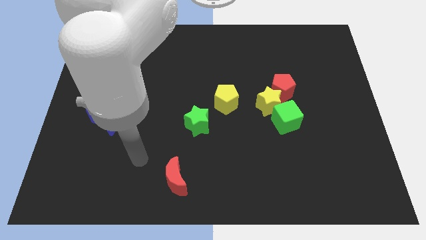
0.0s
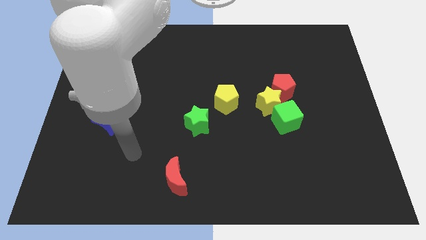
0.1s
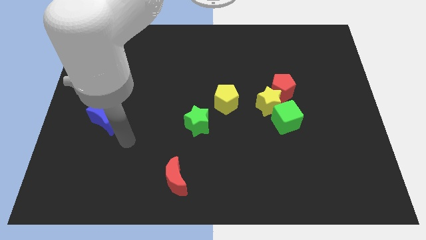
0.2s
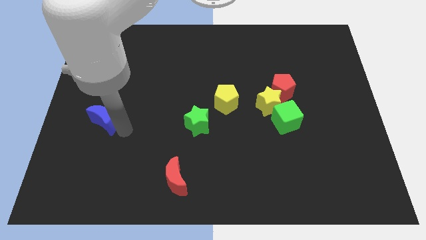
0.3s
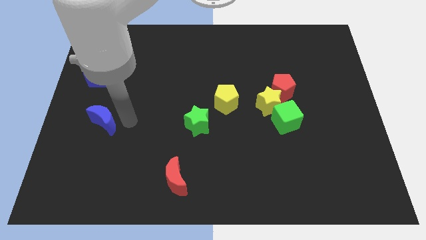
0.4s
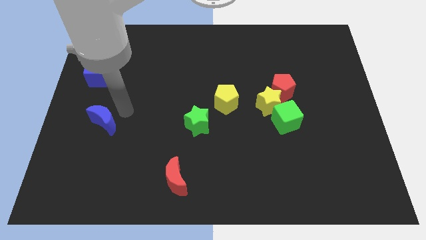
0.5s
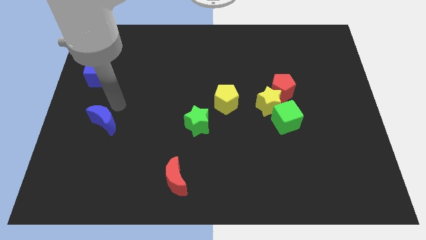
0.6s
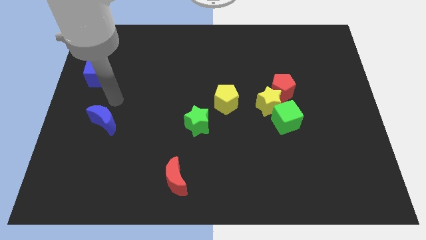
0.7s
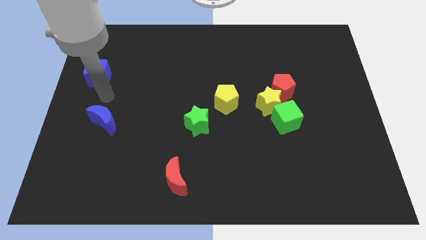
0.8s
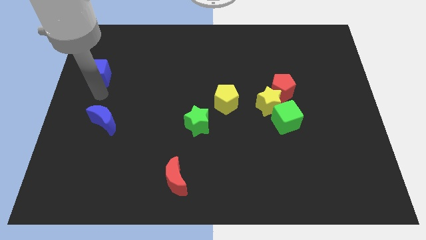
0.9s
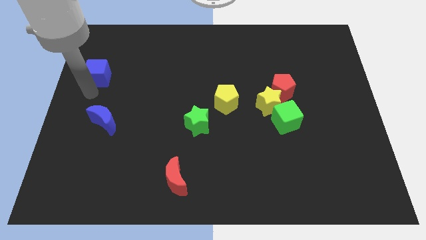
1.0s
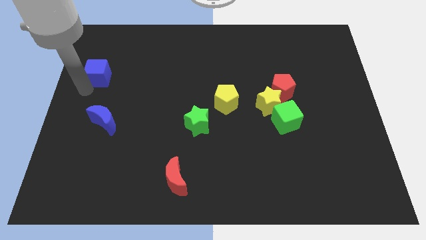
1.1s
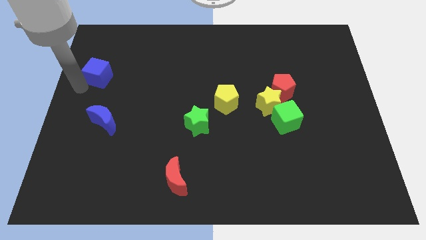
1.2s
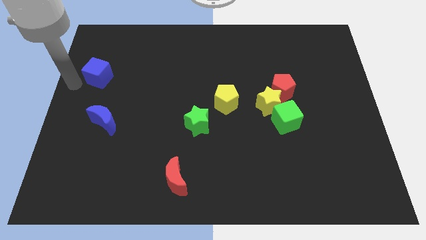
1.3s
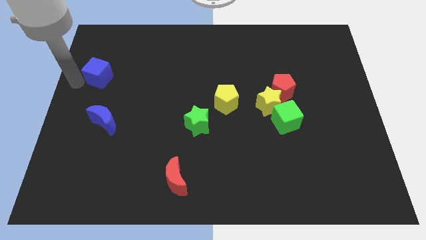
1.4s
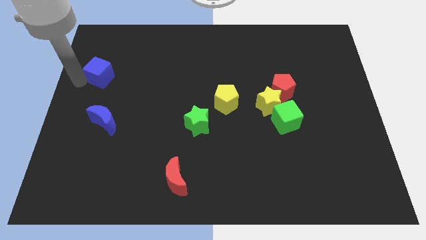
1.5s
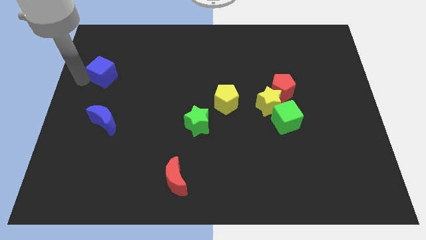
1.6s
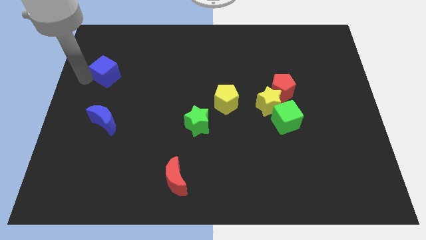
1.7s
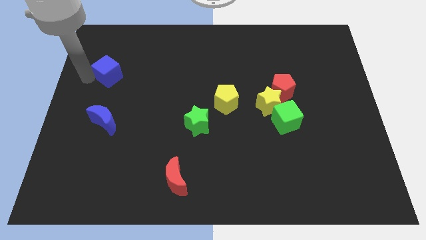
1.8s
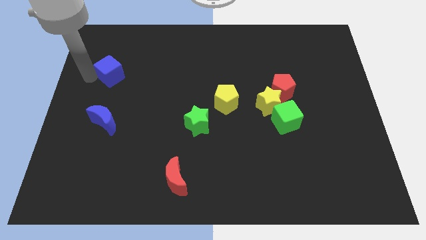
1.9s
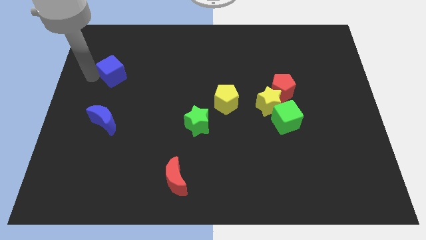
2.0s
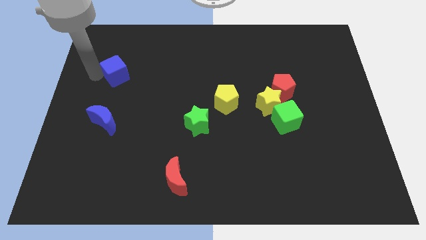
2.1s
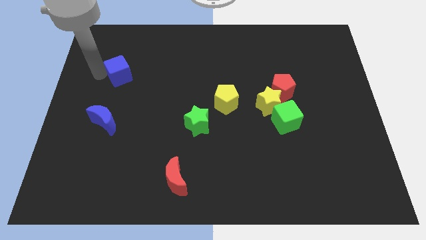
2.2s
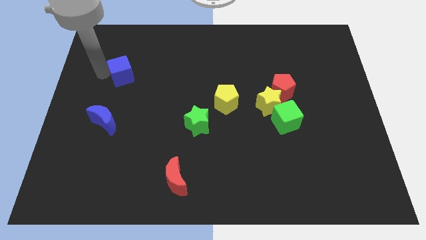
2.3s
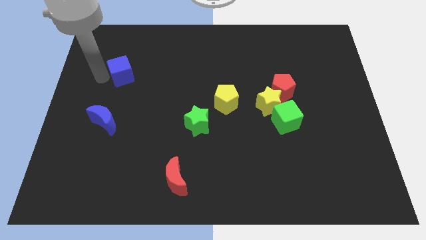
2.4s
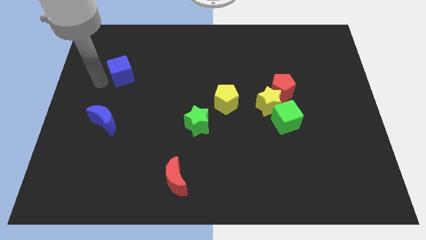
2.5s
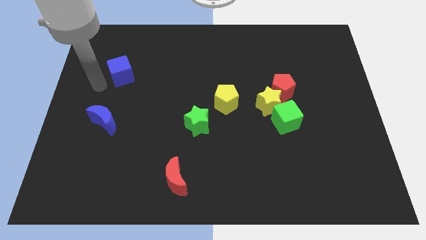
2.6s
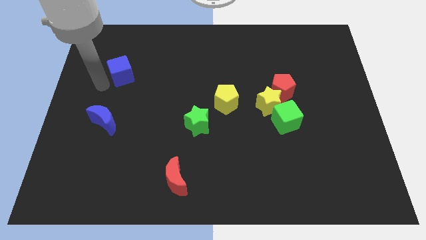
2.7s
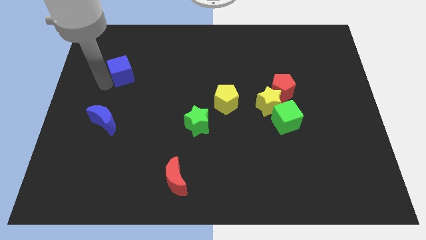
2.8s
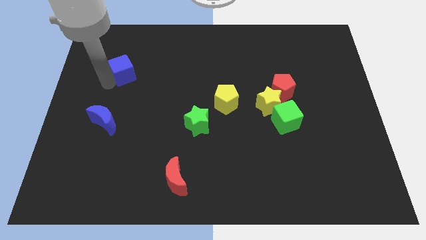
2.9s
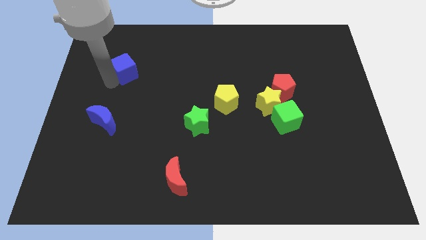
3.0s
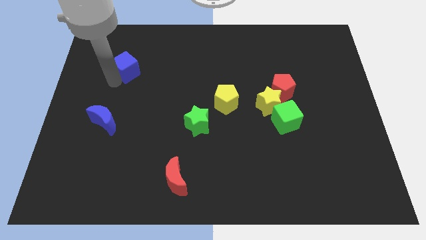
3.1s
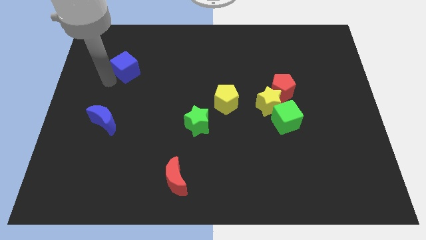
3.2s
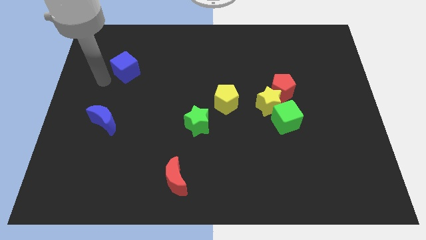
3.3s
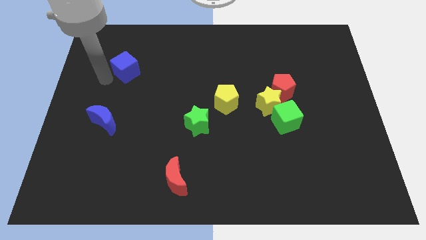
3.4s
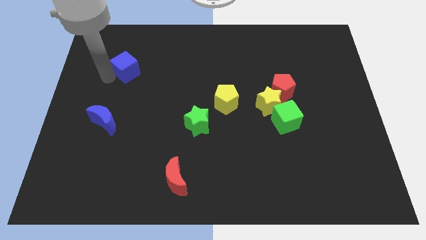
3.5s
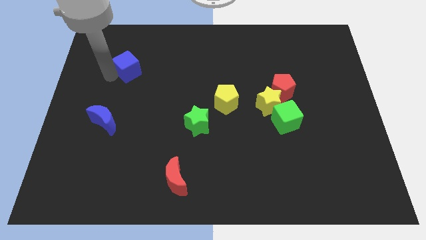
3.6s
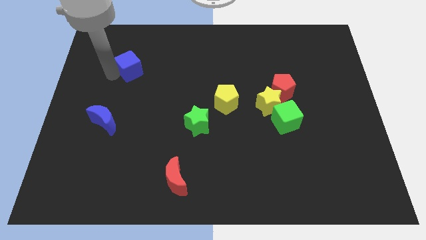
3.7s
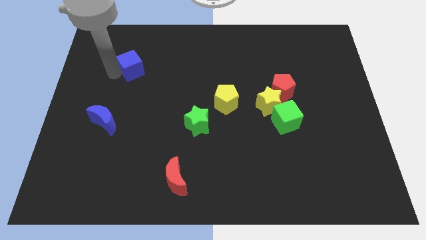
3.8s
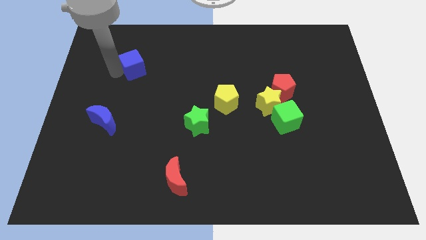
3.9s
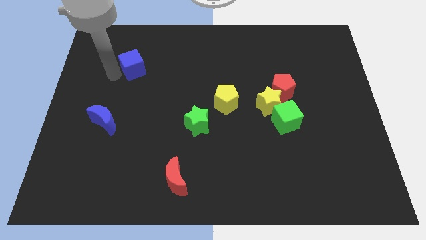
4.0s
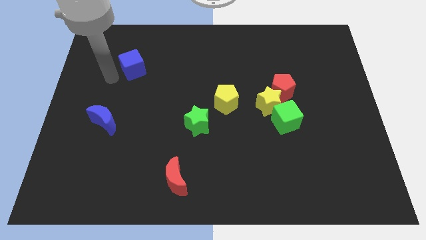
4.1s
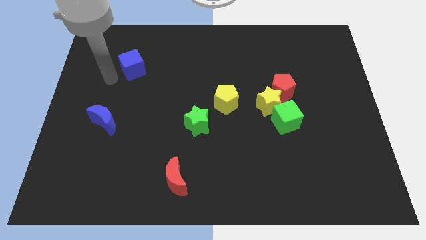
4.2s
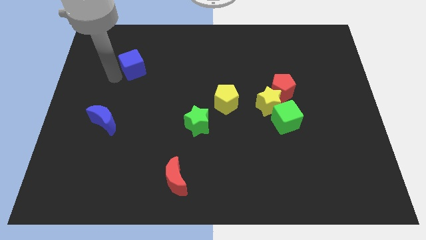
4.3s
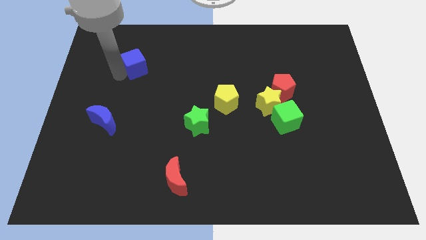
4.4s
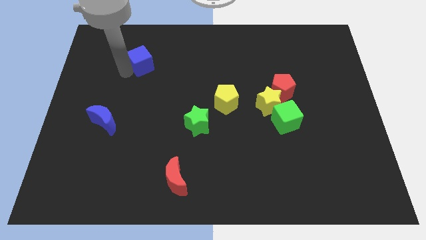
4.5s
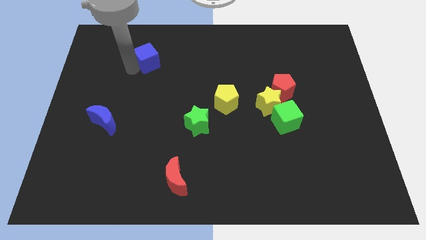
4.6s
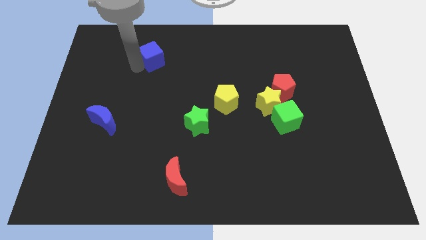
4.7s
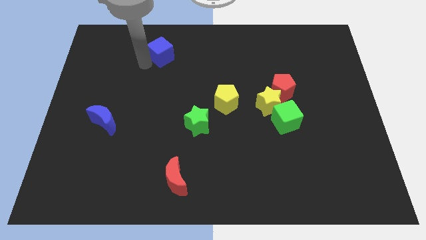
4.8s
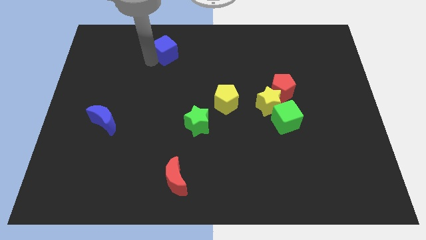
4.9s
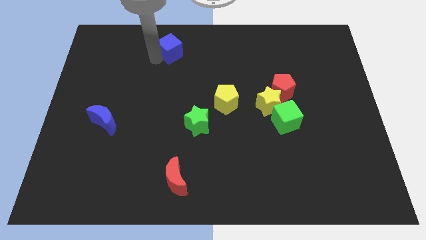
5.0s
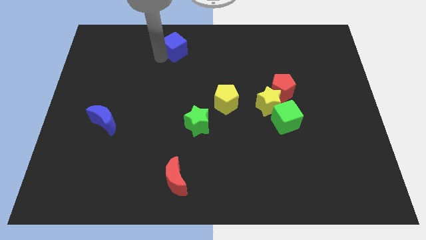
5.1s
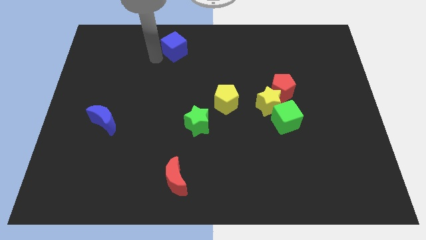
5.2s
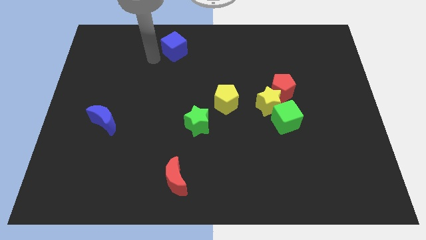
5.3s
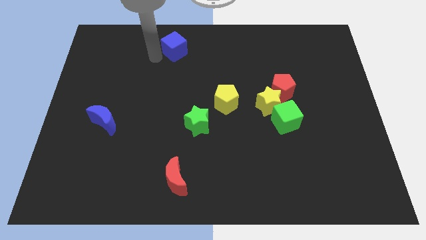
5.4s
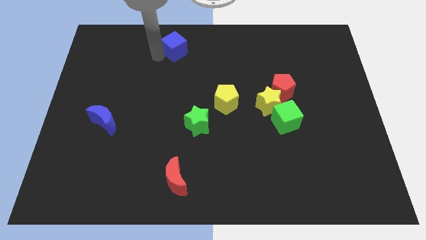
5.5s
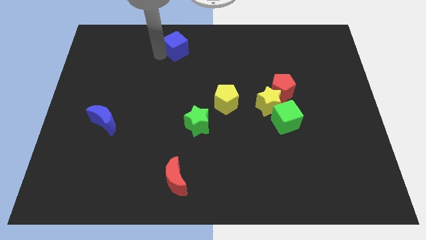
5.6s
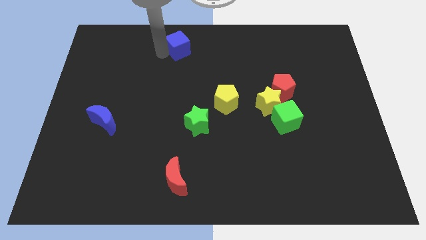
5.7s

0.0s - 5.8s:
push the blue cube to the towards your base

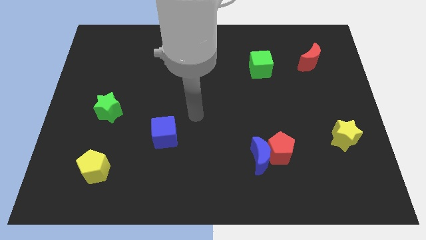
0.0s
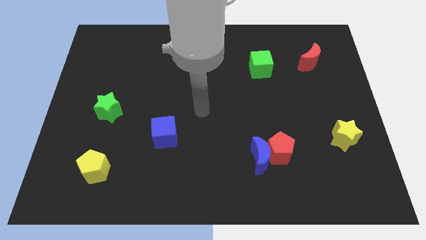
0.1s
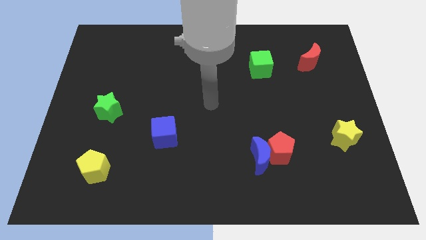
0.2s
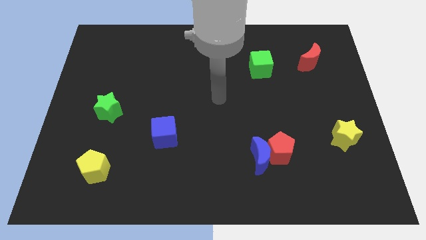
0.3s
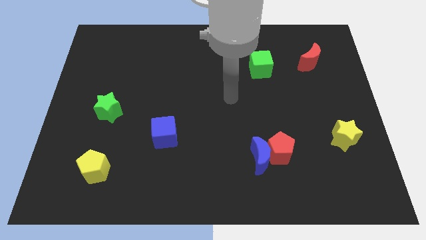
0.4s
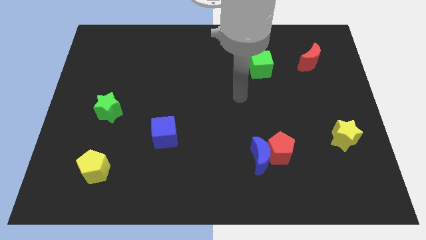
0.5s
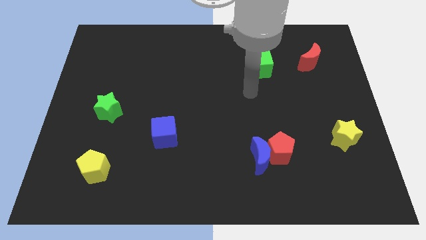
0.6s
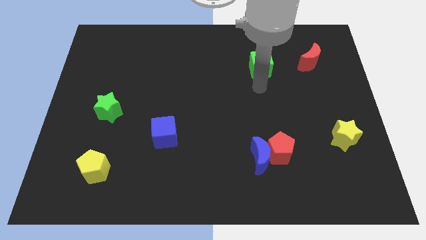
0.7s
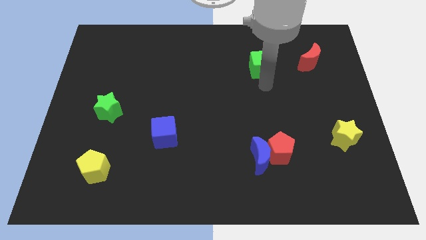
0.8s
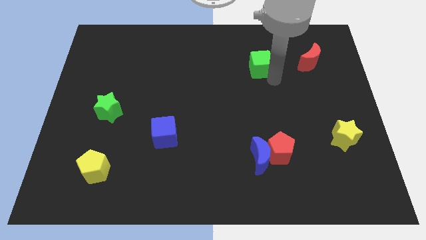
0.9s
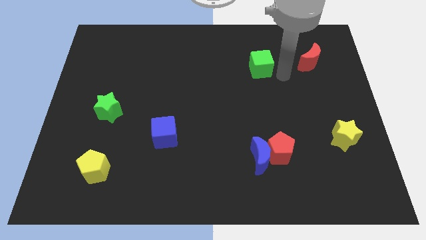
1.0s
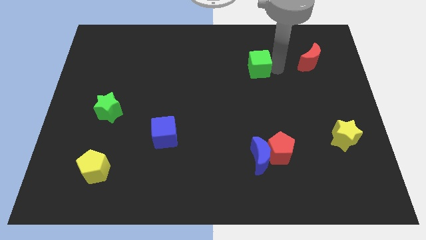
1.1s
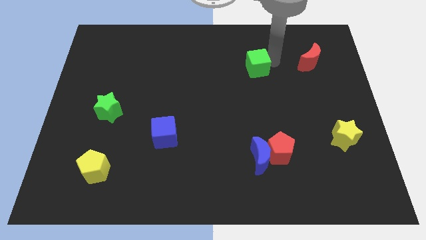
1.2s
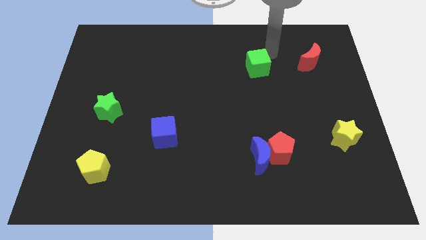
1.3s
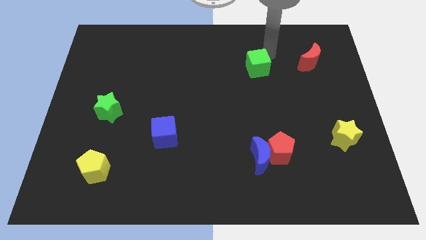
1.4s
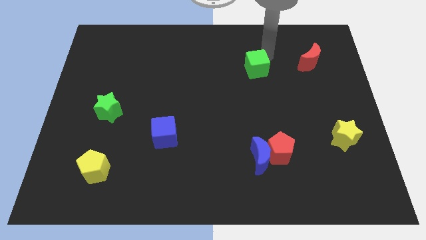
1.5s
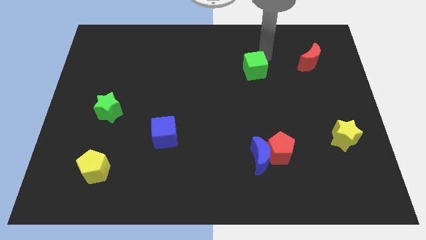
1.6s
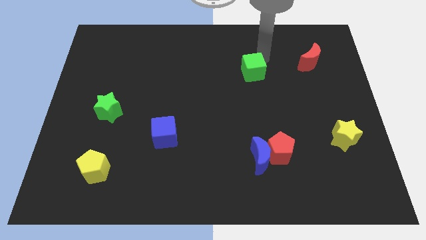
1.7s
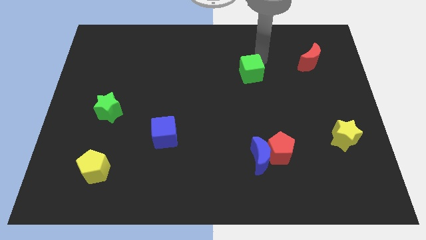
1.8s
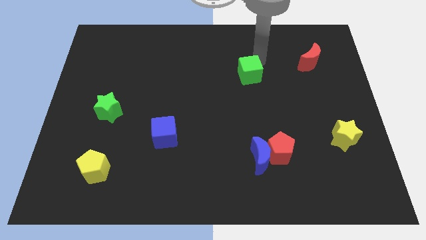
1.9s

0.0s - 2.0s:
push the green cube to the center
